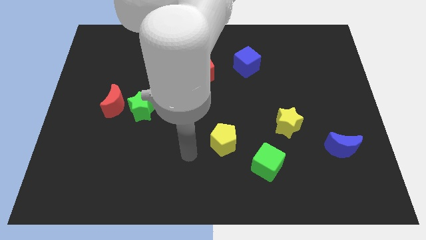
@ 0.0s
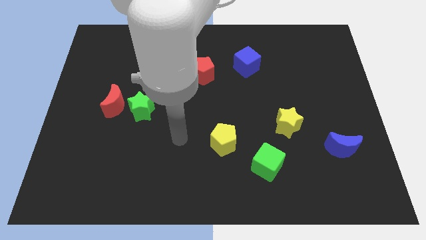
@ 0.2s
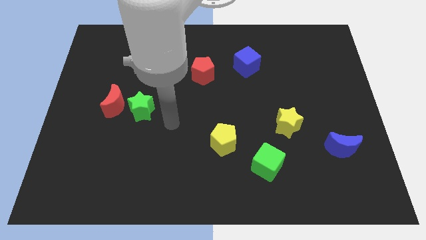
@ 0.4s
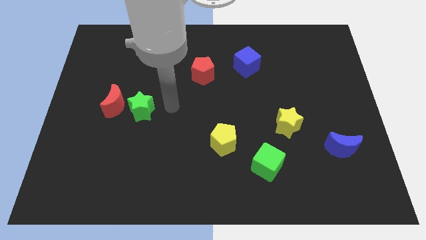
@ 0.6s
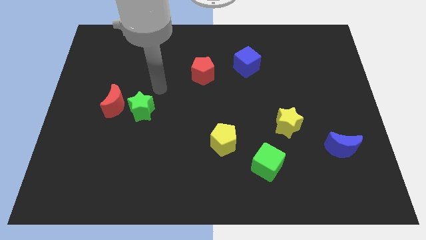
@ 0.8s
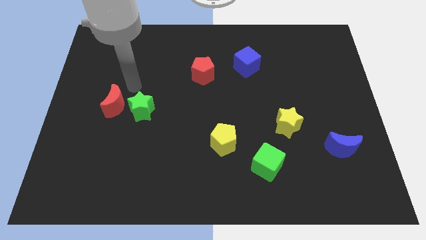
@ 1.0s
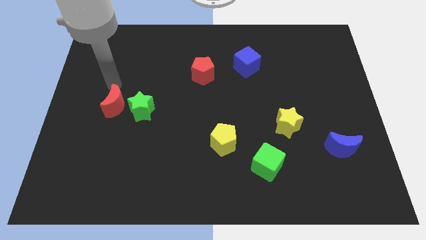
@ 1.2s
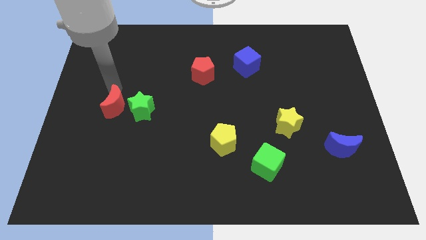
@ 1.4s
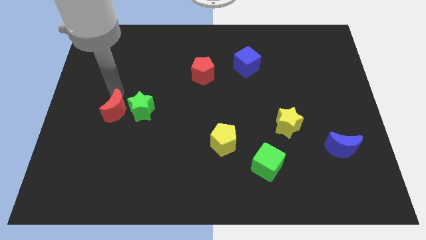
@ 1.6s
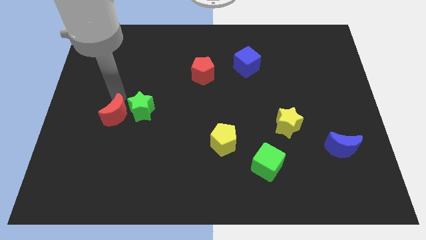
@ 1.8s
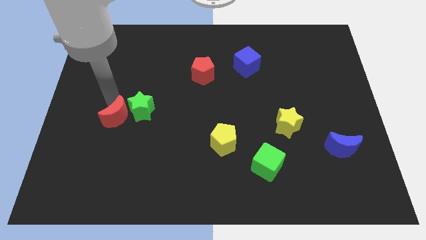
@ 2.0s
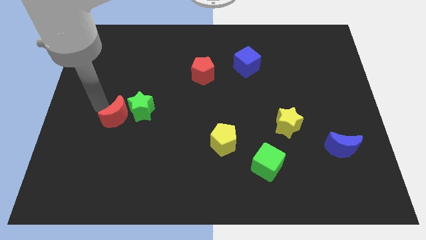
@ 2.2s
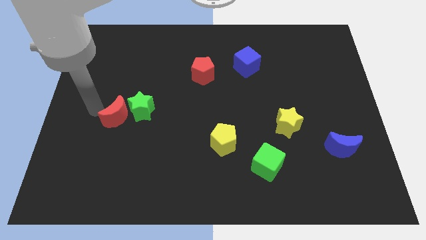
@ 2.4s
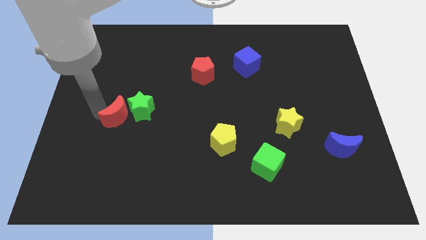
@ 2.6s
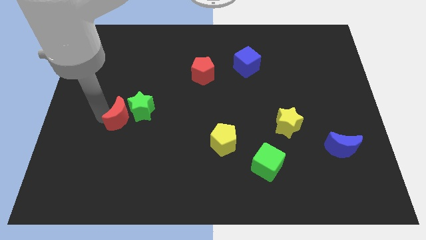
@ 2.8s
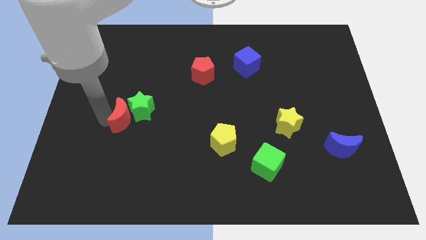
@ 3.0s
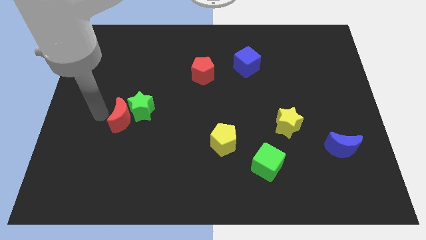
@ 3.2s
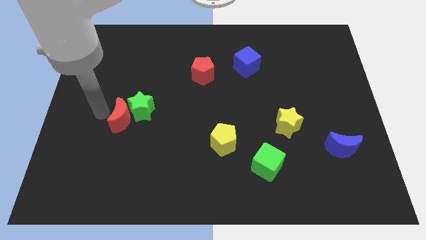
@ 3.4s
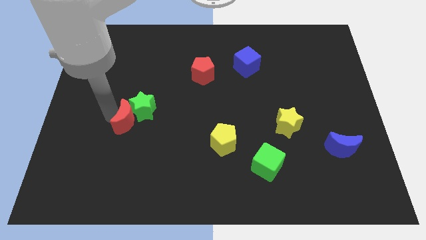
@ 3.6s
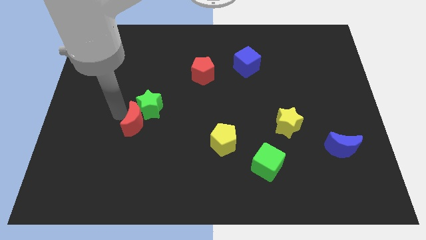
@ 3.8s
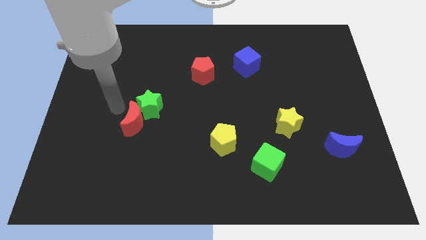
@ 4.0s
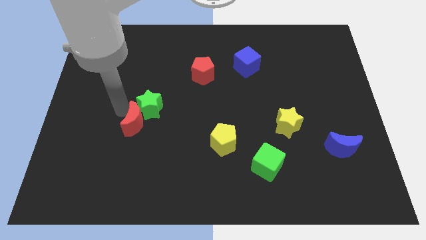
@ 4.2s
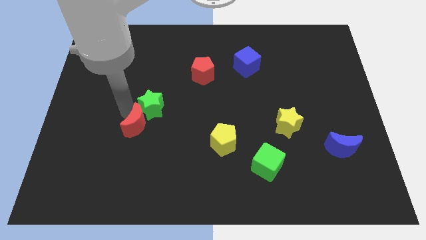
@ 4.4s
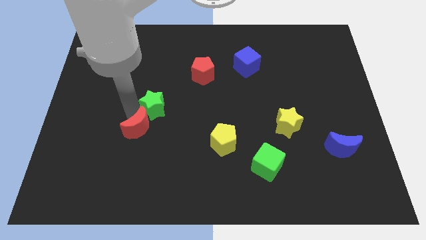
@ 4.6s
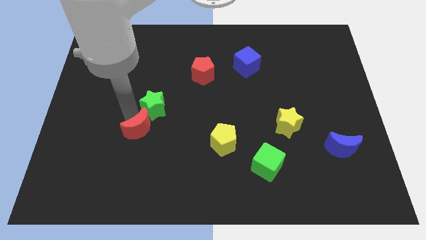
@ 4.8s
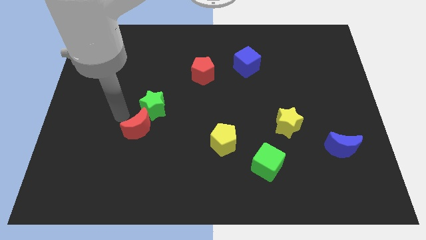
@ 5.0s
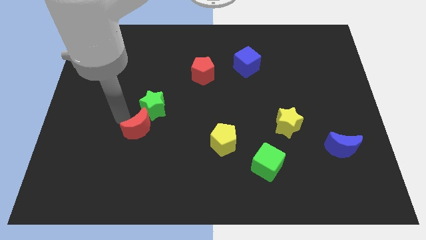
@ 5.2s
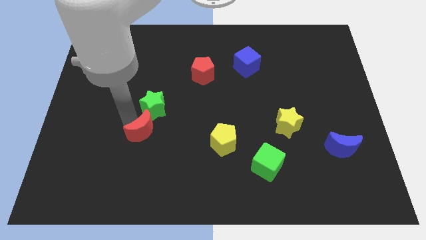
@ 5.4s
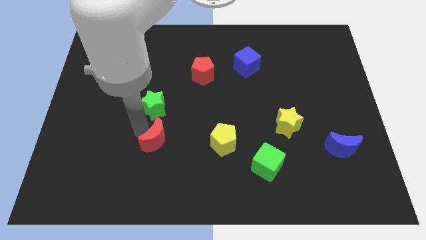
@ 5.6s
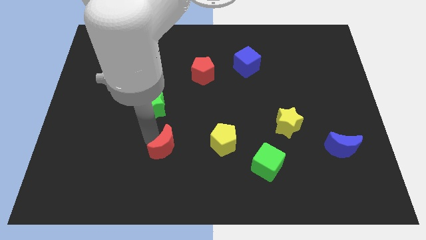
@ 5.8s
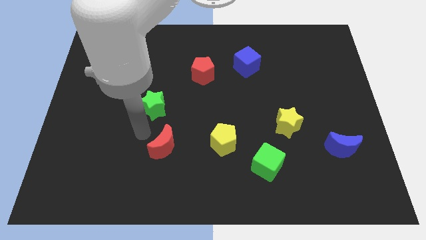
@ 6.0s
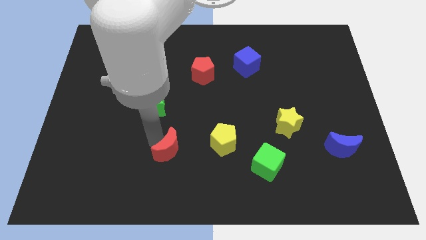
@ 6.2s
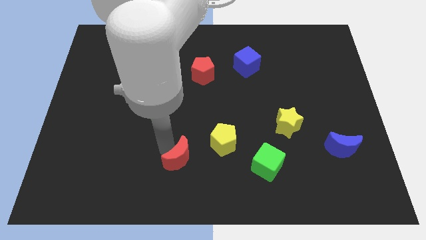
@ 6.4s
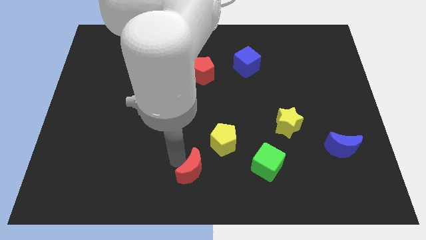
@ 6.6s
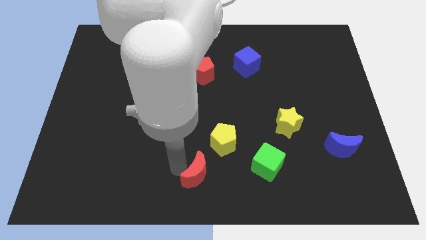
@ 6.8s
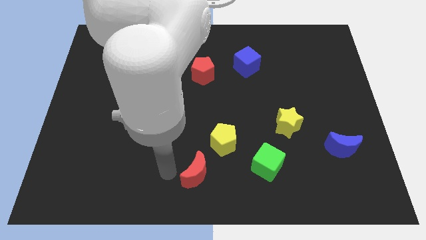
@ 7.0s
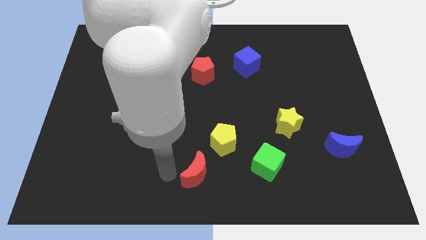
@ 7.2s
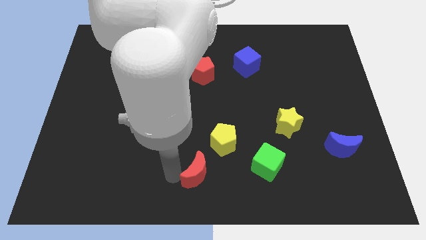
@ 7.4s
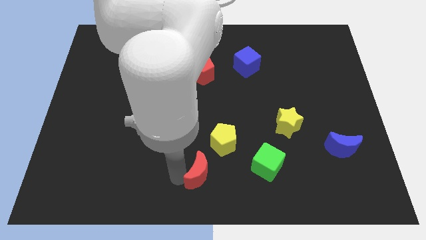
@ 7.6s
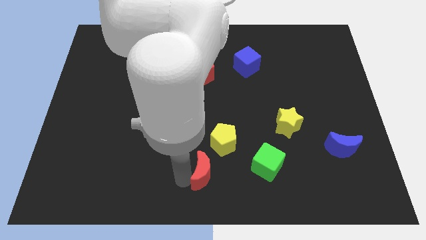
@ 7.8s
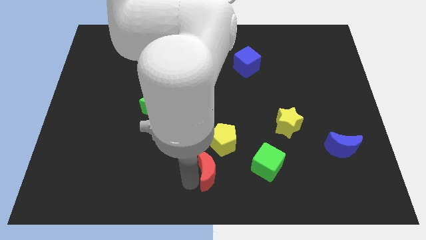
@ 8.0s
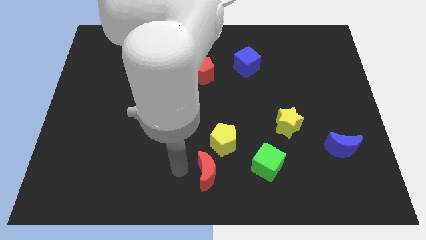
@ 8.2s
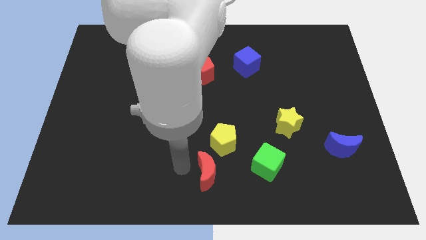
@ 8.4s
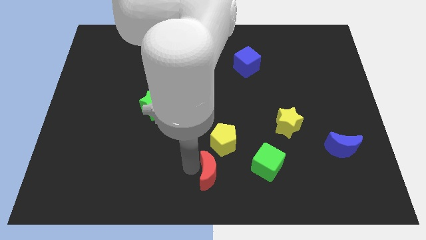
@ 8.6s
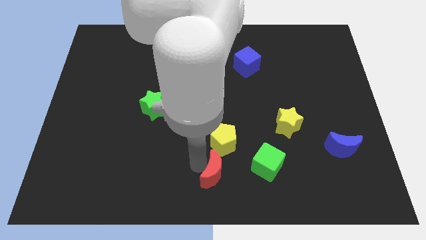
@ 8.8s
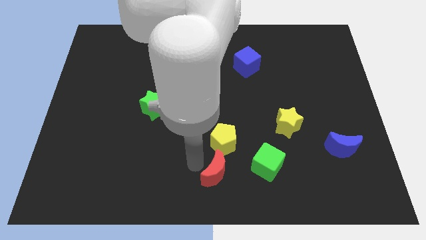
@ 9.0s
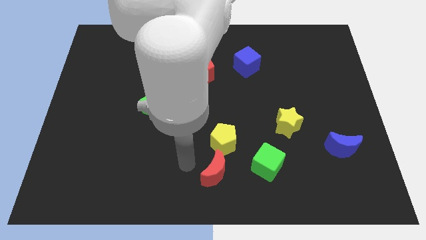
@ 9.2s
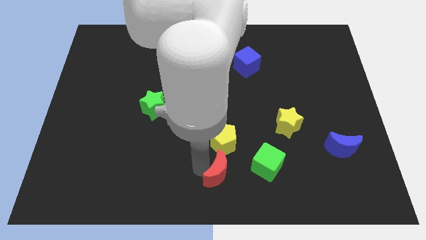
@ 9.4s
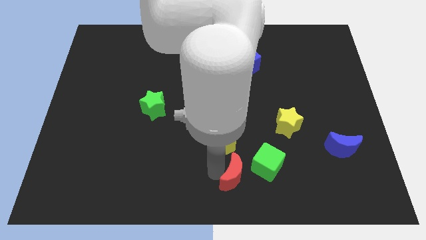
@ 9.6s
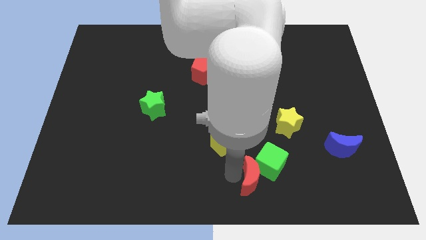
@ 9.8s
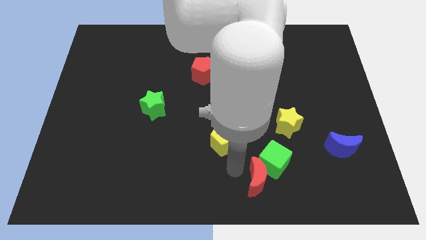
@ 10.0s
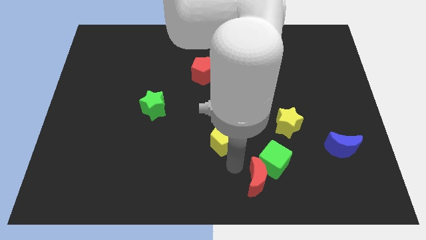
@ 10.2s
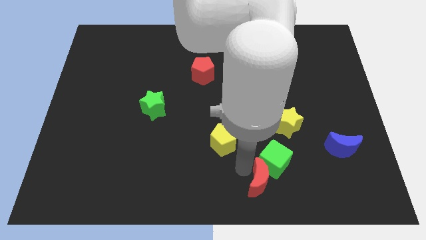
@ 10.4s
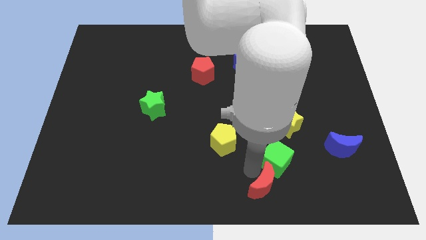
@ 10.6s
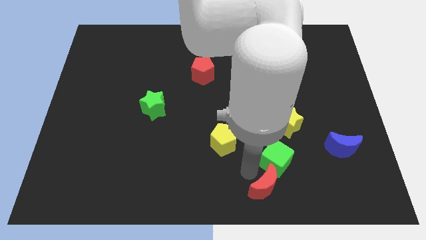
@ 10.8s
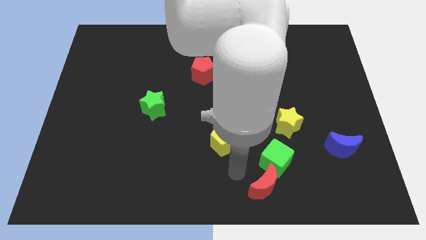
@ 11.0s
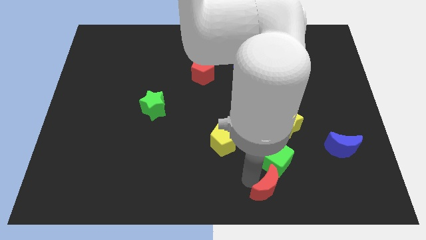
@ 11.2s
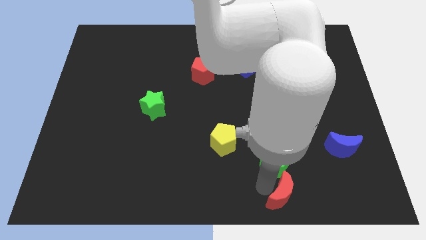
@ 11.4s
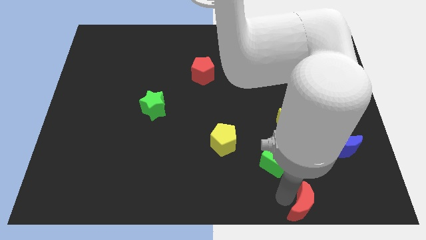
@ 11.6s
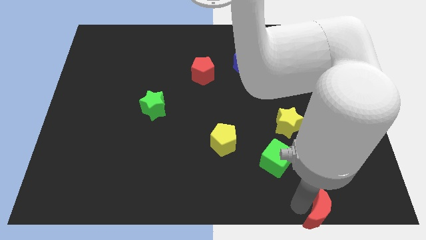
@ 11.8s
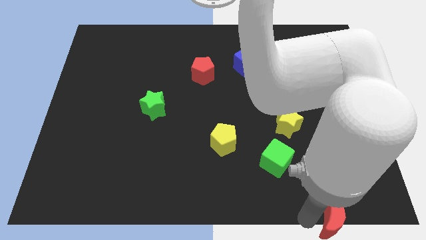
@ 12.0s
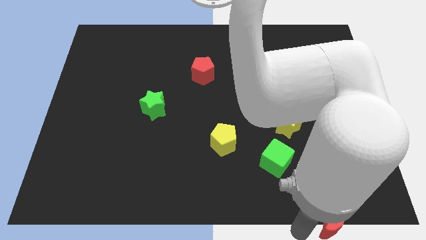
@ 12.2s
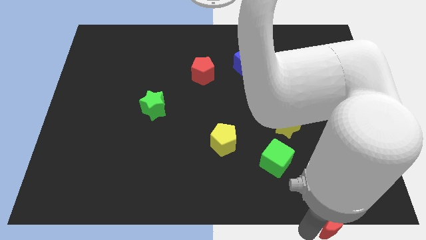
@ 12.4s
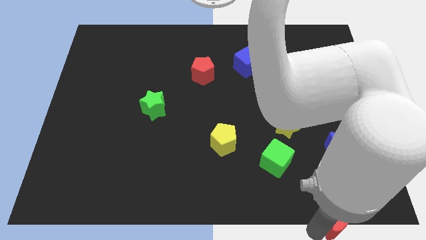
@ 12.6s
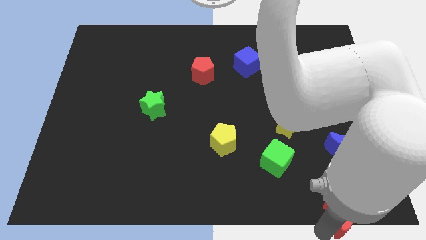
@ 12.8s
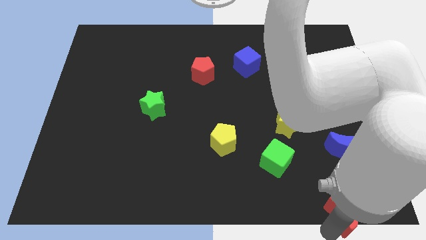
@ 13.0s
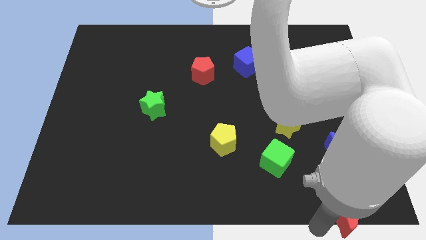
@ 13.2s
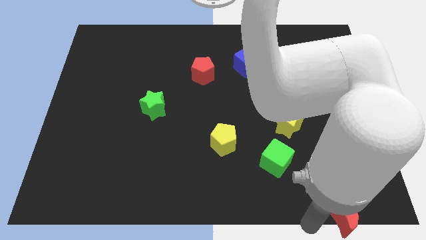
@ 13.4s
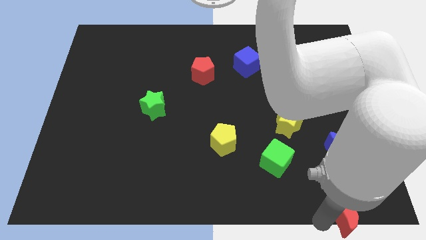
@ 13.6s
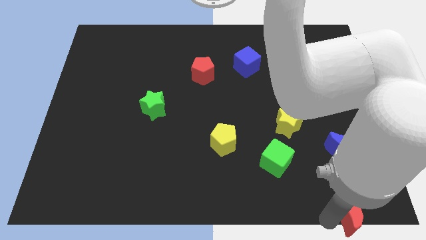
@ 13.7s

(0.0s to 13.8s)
move the red moon to the bottom right corner
